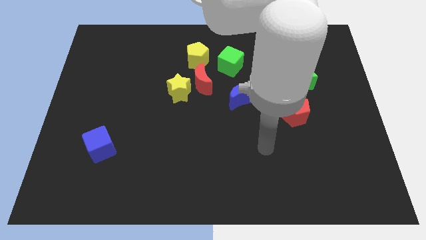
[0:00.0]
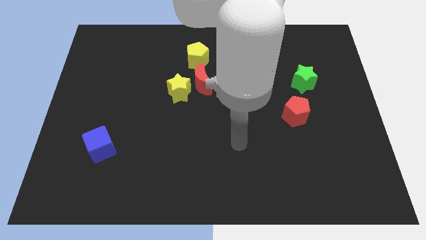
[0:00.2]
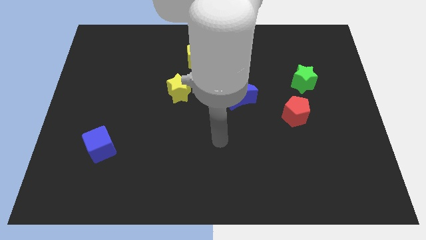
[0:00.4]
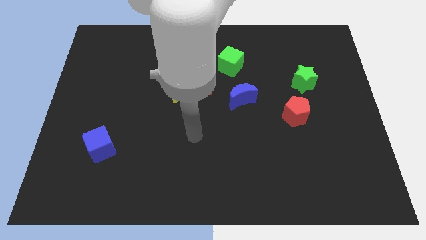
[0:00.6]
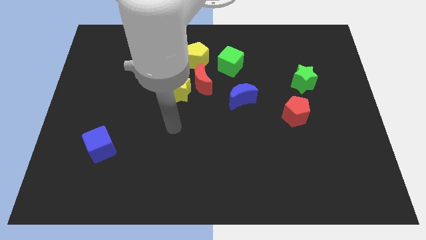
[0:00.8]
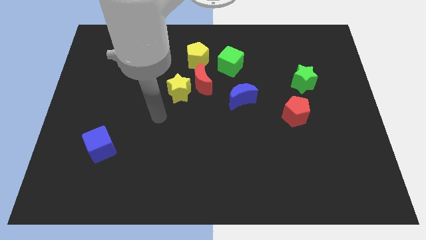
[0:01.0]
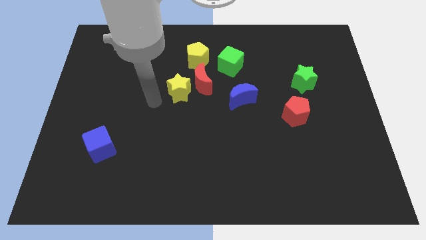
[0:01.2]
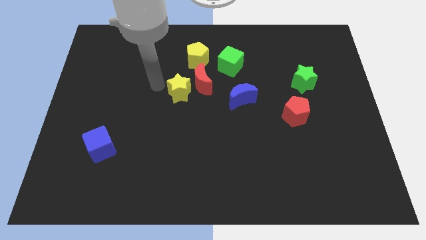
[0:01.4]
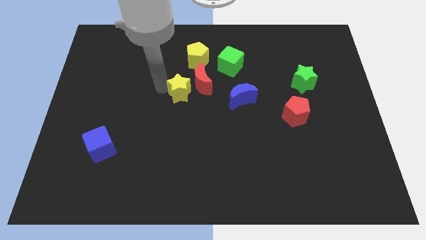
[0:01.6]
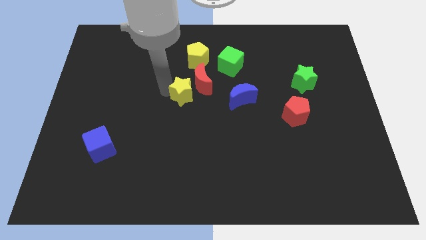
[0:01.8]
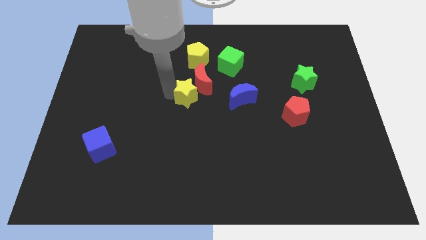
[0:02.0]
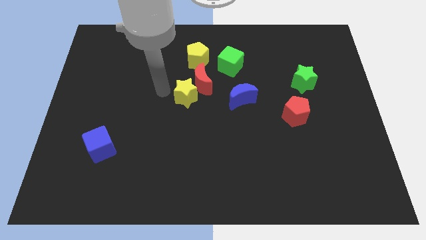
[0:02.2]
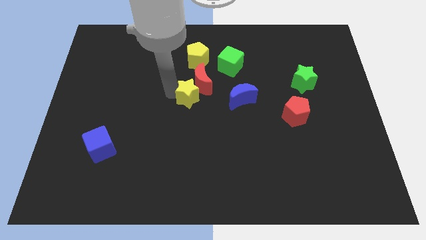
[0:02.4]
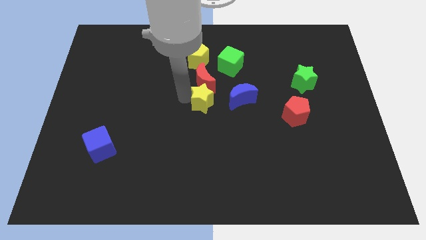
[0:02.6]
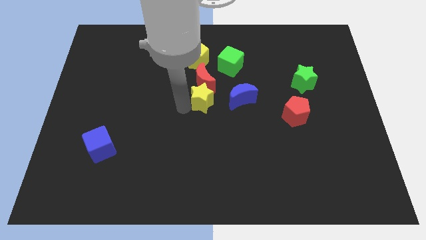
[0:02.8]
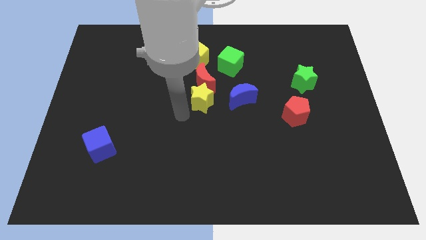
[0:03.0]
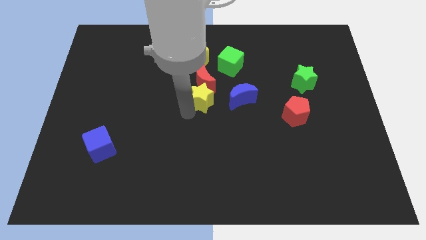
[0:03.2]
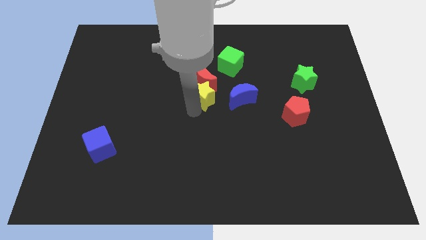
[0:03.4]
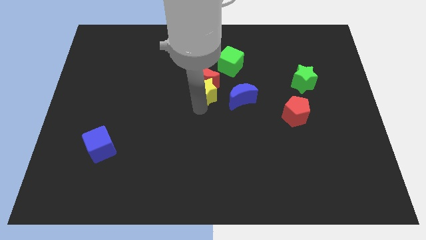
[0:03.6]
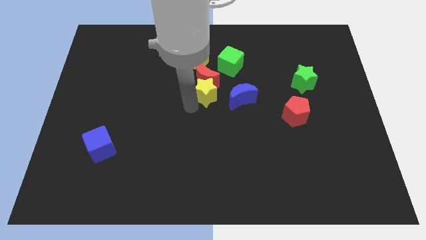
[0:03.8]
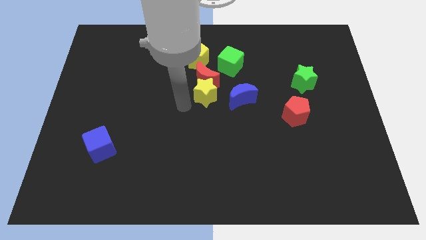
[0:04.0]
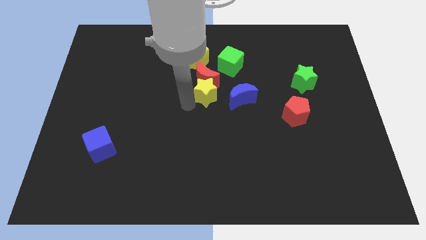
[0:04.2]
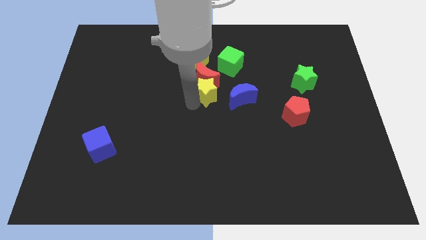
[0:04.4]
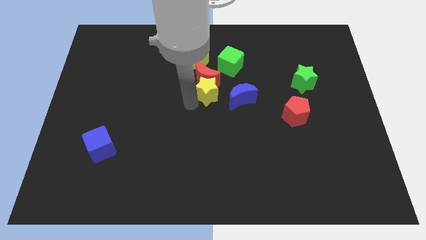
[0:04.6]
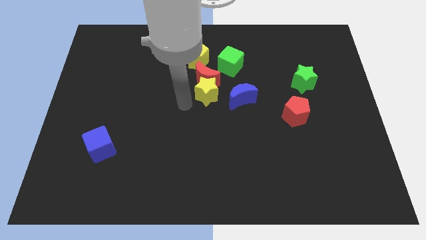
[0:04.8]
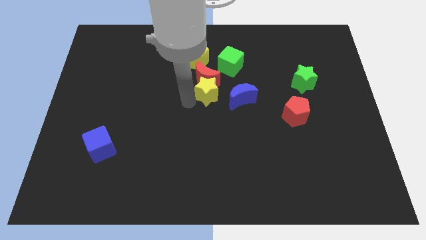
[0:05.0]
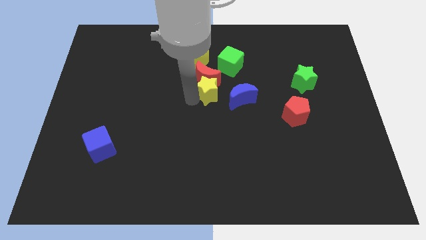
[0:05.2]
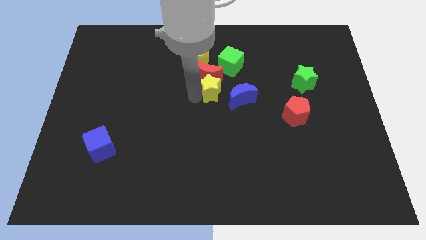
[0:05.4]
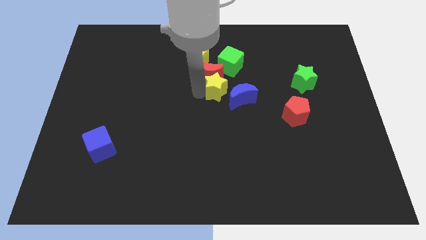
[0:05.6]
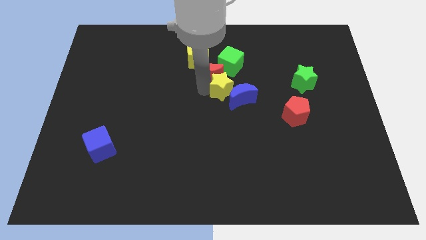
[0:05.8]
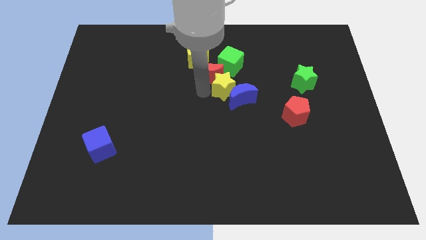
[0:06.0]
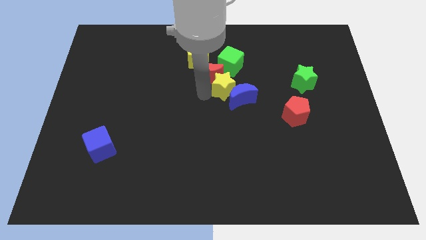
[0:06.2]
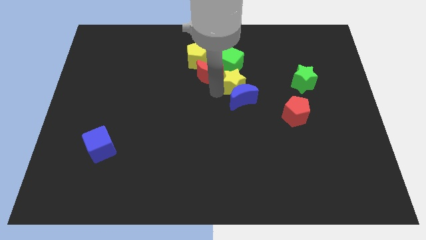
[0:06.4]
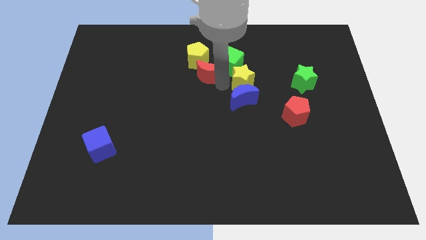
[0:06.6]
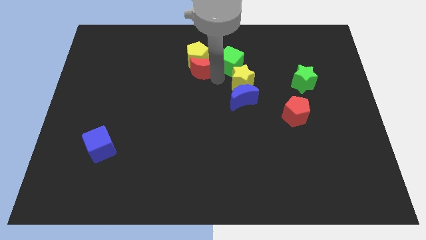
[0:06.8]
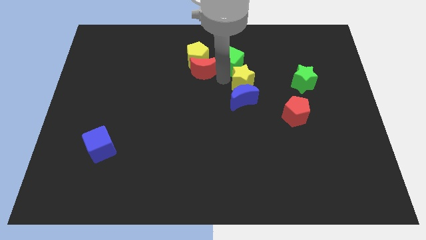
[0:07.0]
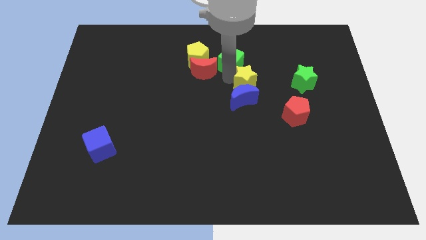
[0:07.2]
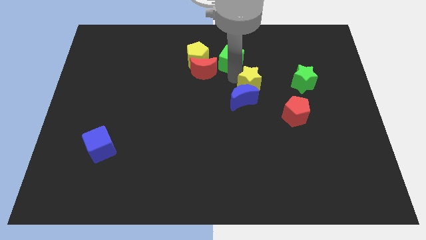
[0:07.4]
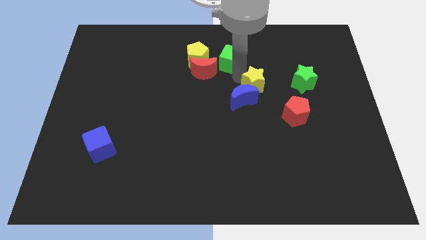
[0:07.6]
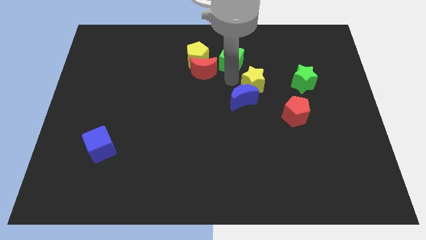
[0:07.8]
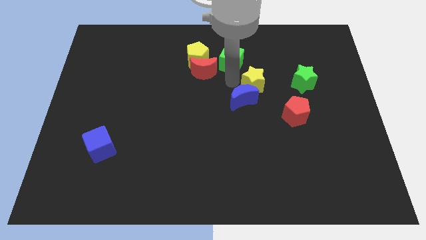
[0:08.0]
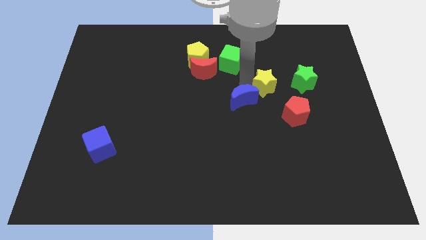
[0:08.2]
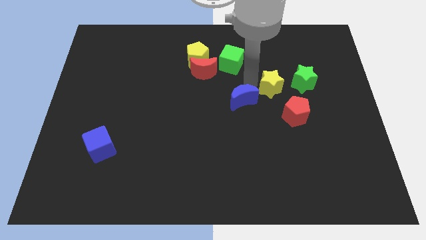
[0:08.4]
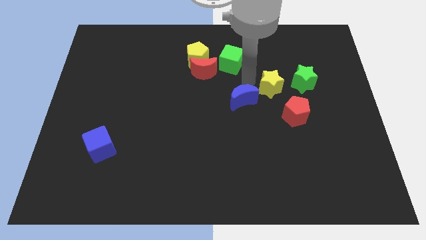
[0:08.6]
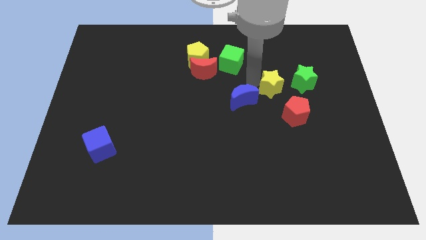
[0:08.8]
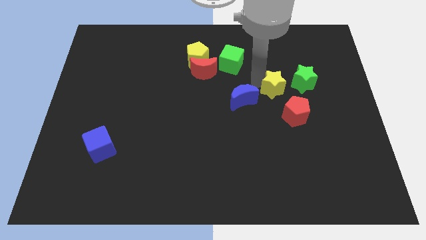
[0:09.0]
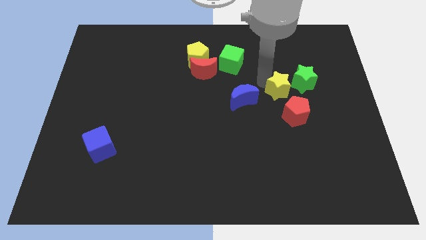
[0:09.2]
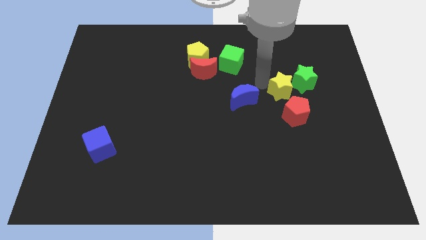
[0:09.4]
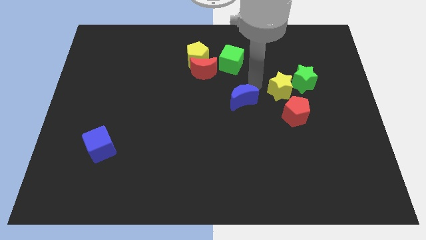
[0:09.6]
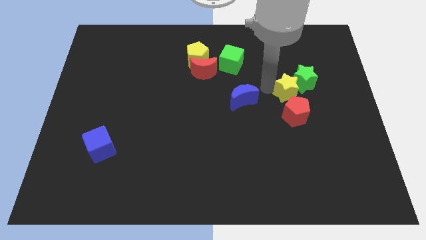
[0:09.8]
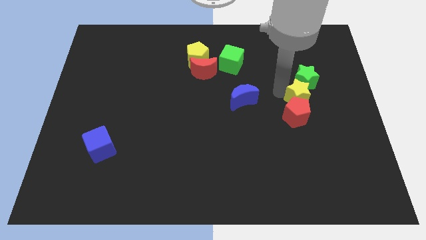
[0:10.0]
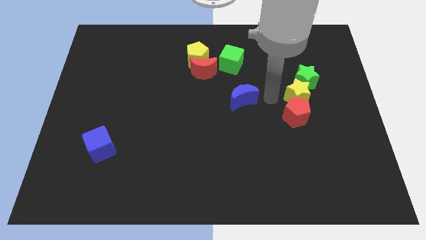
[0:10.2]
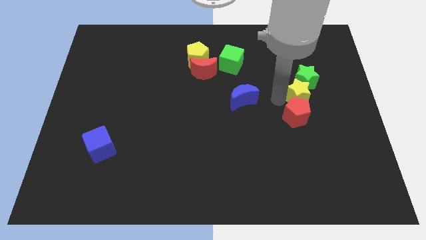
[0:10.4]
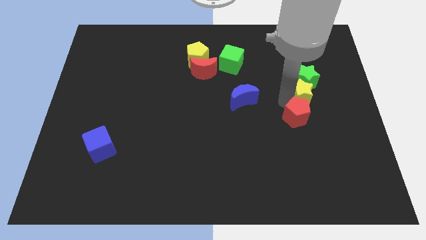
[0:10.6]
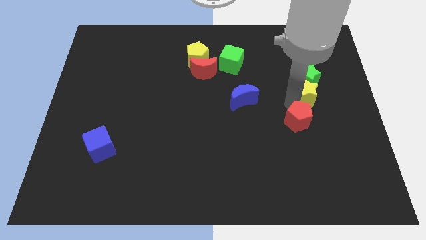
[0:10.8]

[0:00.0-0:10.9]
slide the yellow star diagonally down and to the right of the green star

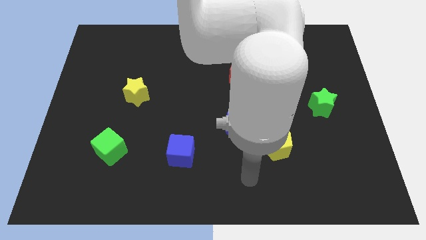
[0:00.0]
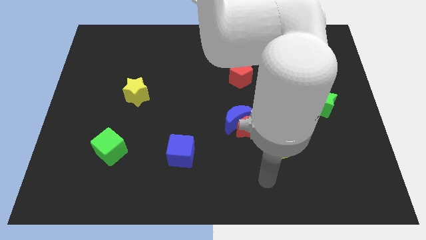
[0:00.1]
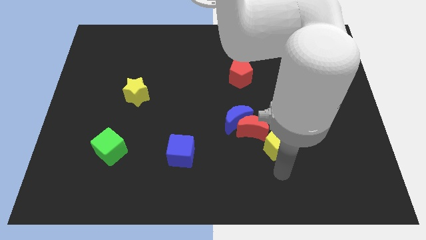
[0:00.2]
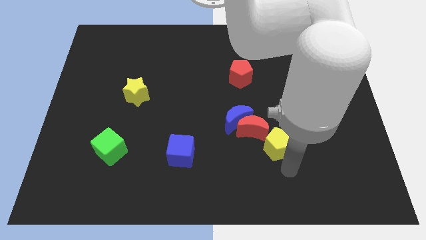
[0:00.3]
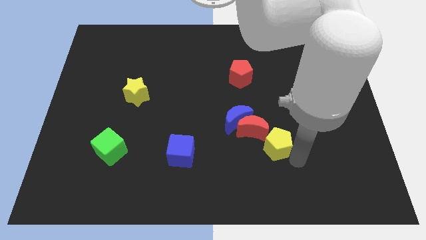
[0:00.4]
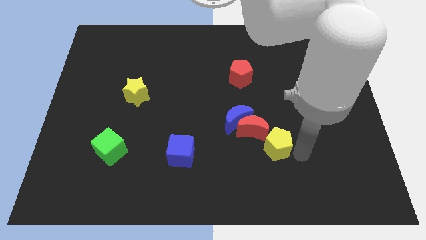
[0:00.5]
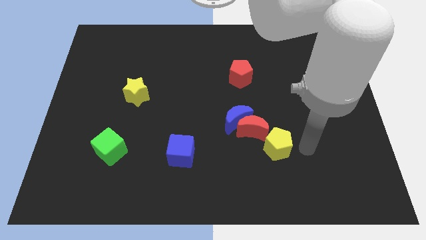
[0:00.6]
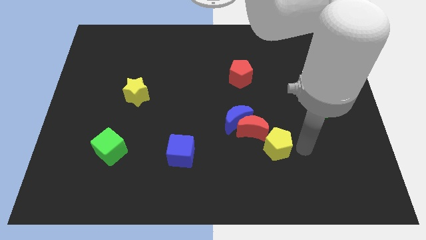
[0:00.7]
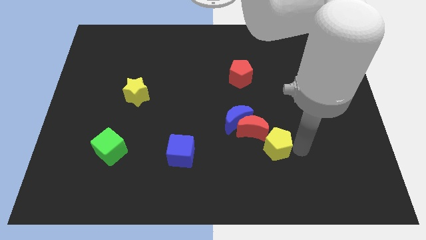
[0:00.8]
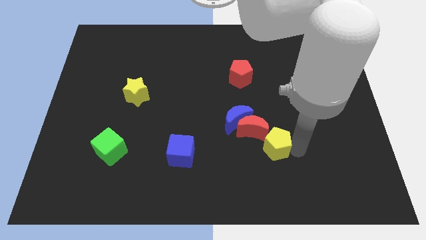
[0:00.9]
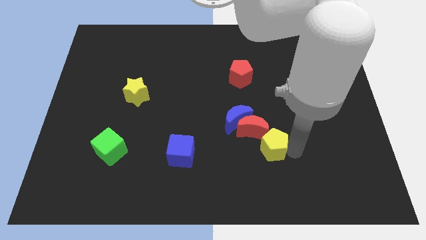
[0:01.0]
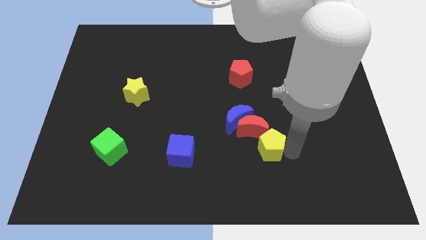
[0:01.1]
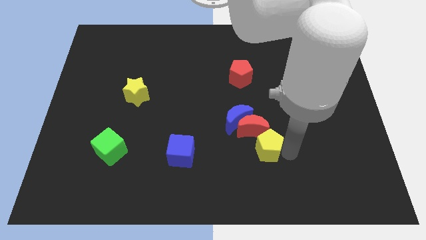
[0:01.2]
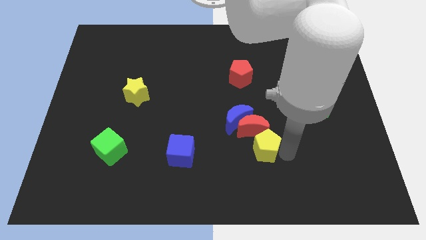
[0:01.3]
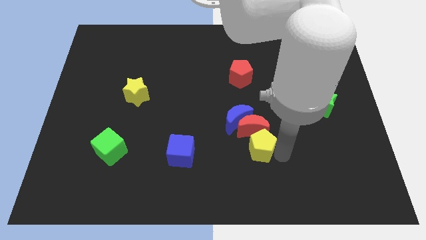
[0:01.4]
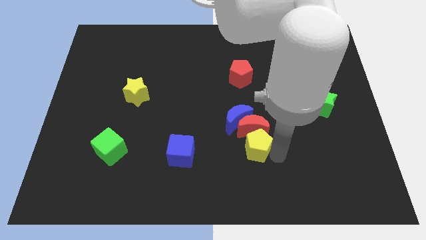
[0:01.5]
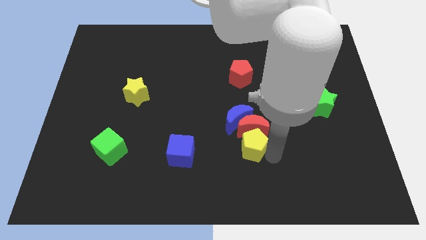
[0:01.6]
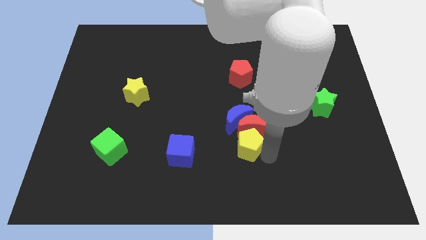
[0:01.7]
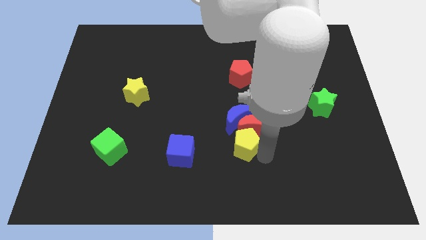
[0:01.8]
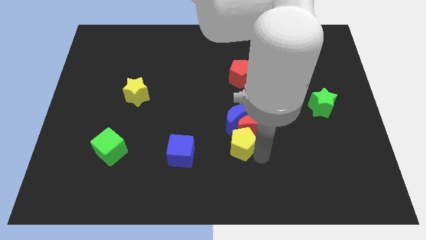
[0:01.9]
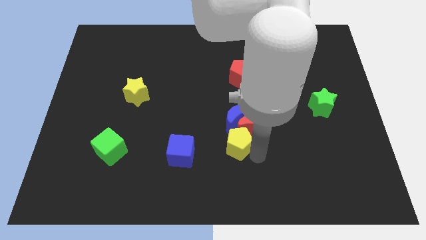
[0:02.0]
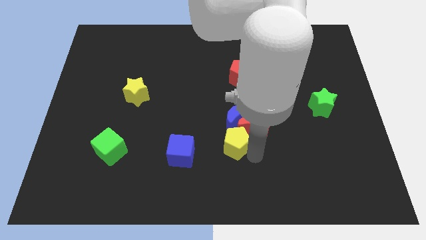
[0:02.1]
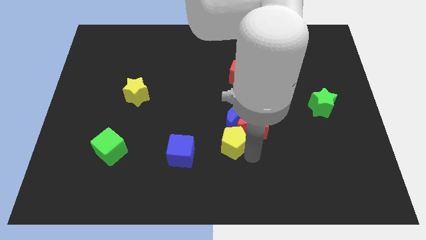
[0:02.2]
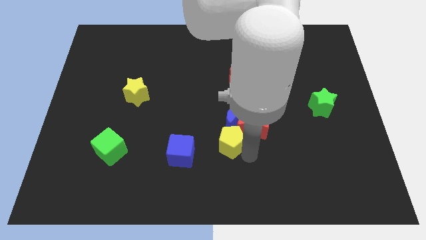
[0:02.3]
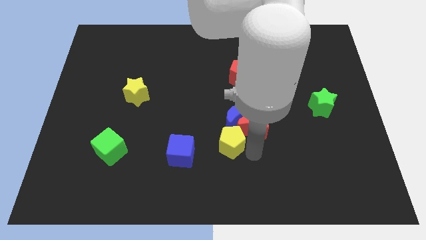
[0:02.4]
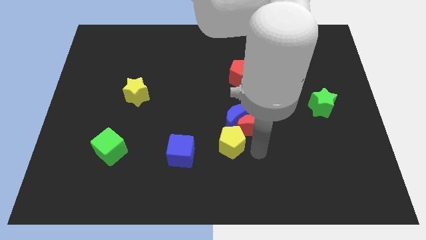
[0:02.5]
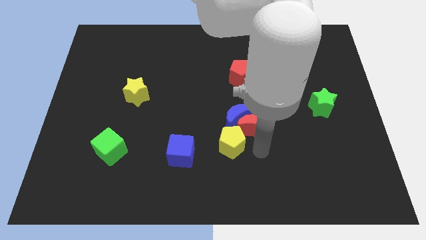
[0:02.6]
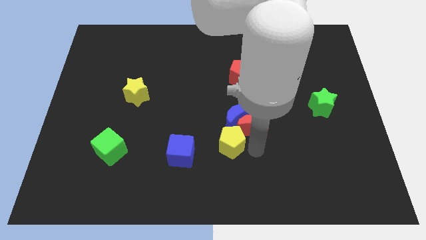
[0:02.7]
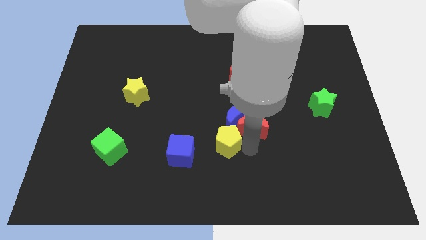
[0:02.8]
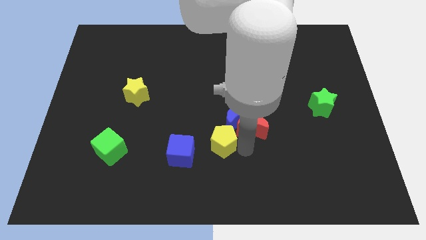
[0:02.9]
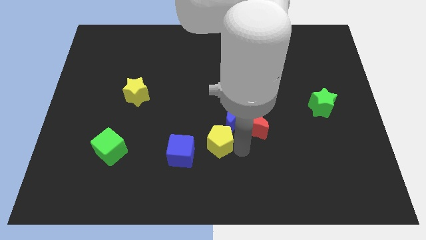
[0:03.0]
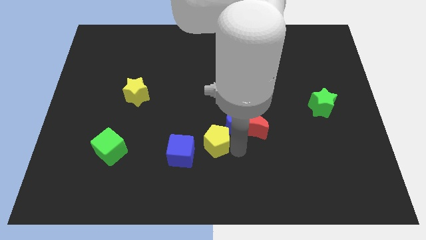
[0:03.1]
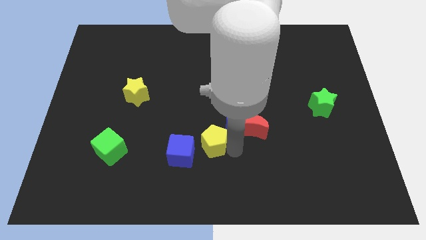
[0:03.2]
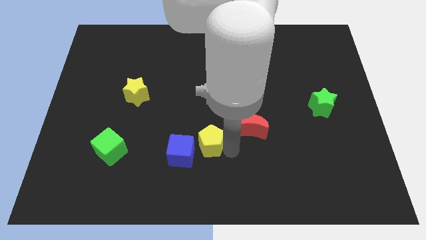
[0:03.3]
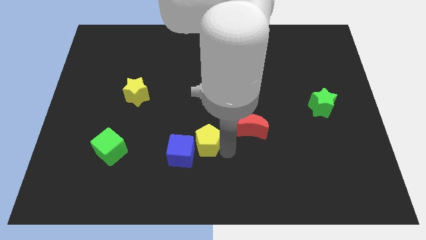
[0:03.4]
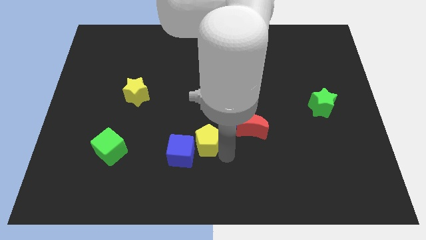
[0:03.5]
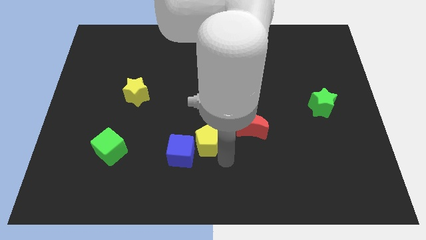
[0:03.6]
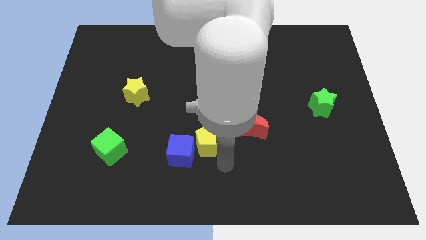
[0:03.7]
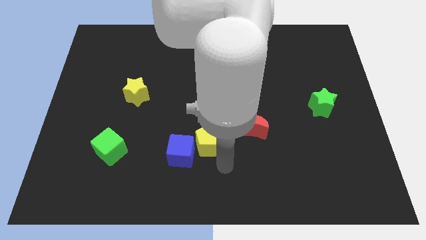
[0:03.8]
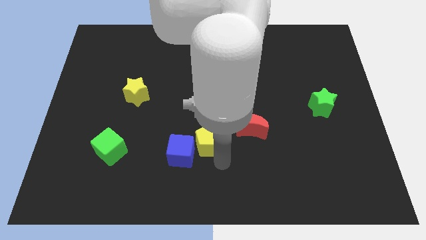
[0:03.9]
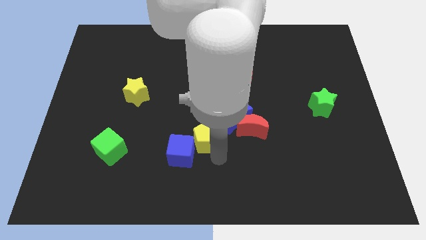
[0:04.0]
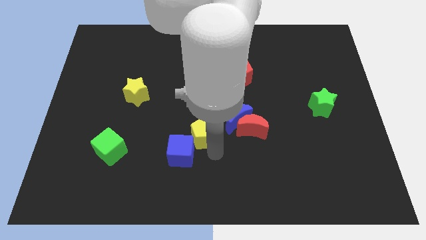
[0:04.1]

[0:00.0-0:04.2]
slide the yellow pentagon to the top side of the blue cube
